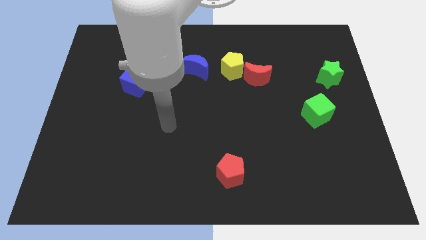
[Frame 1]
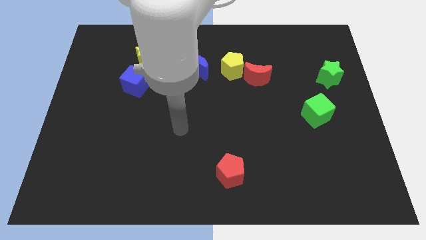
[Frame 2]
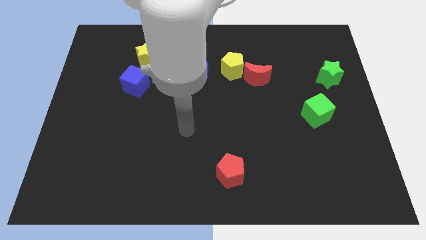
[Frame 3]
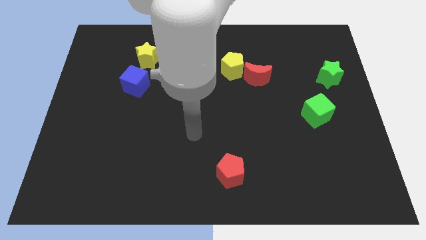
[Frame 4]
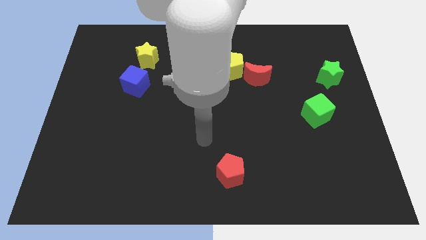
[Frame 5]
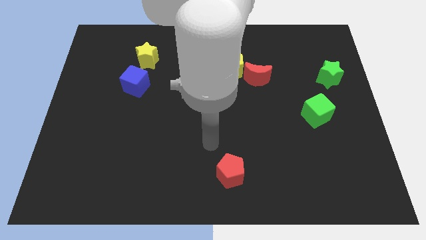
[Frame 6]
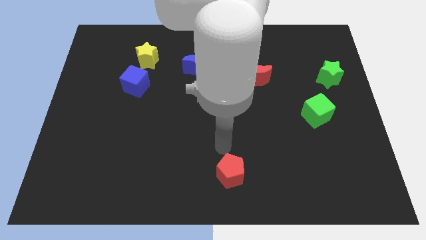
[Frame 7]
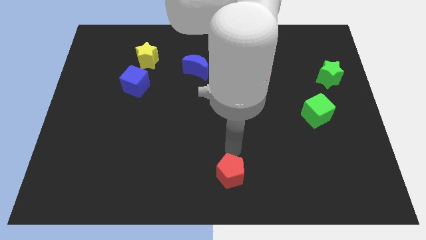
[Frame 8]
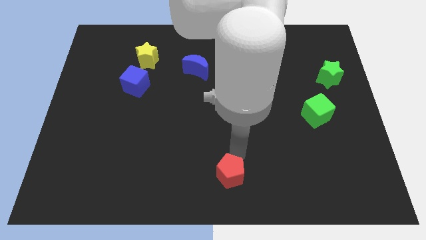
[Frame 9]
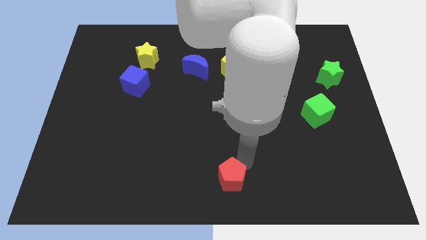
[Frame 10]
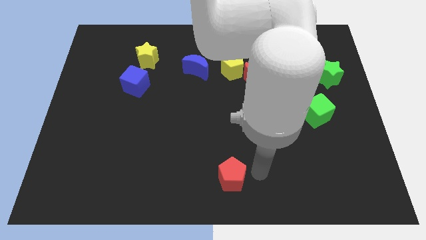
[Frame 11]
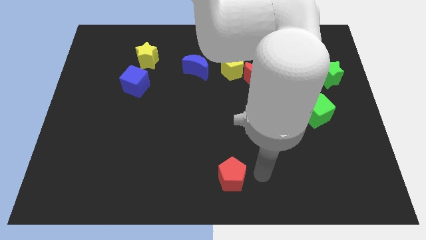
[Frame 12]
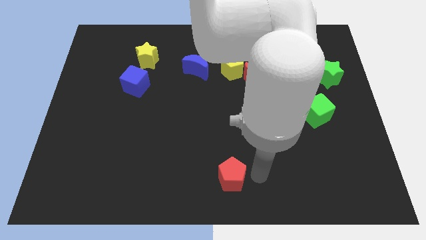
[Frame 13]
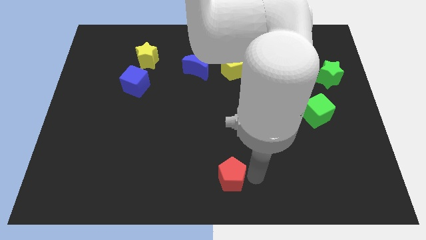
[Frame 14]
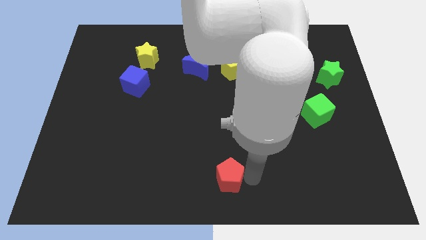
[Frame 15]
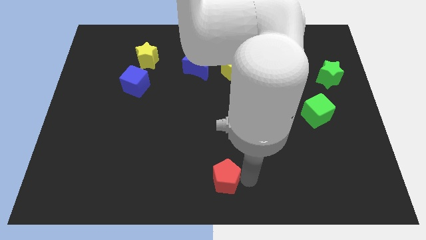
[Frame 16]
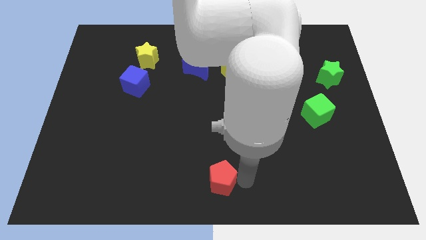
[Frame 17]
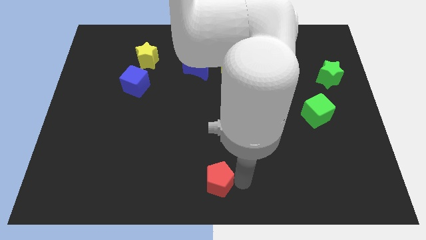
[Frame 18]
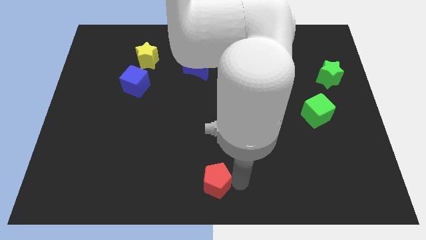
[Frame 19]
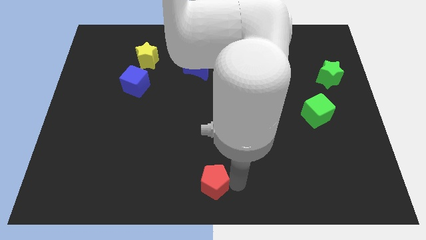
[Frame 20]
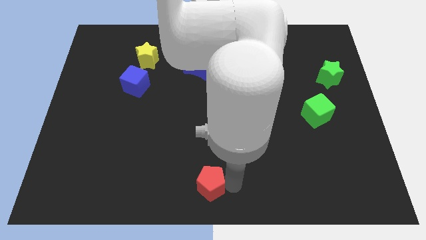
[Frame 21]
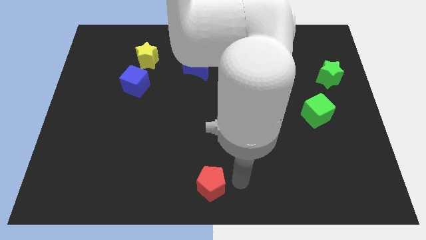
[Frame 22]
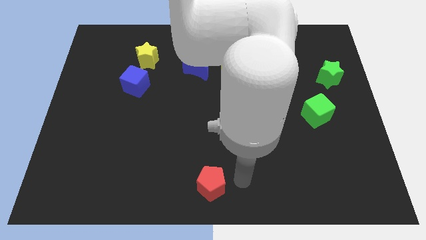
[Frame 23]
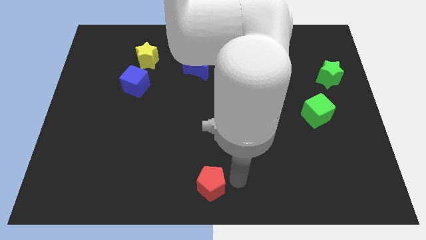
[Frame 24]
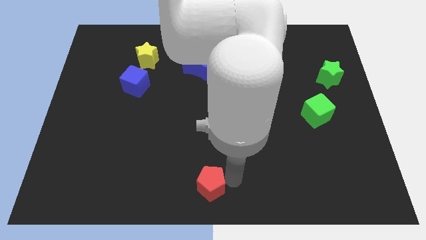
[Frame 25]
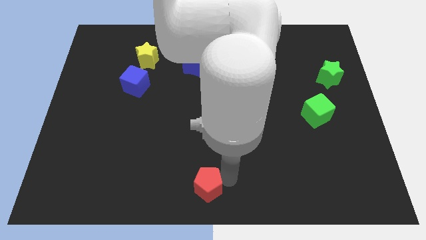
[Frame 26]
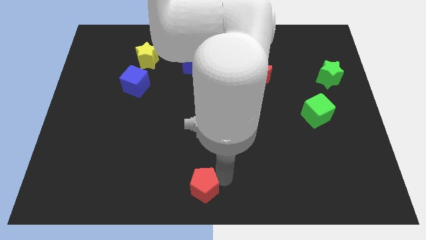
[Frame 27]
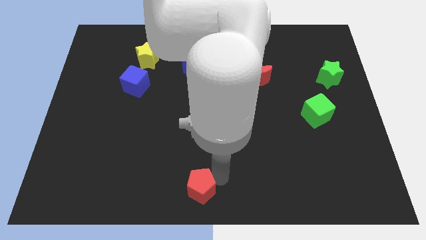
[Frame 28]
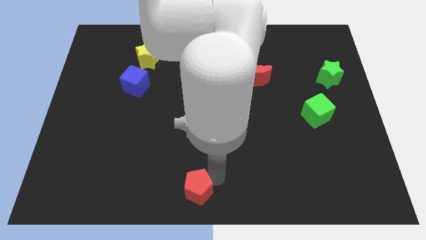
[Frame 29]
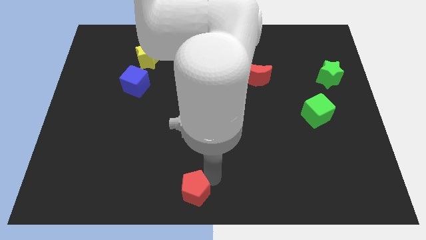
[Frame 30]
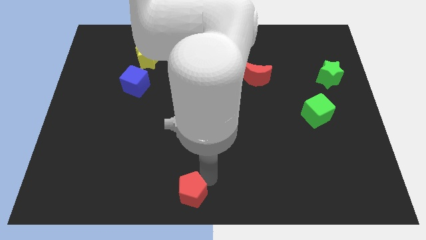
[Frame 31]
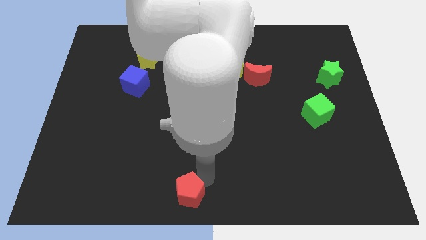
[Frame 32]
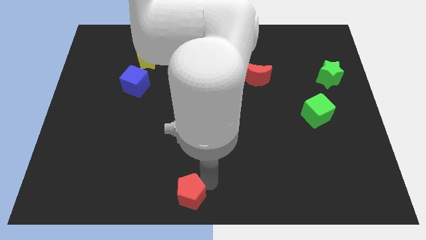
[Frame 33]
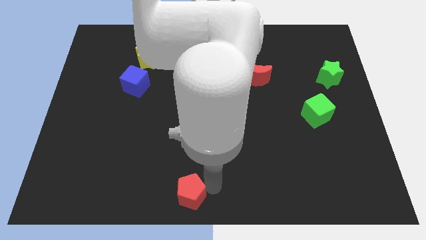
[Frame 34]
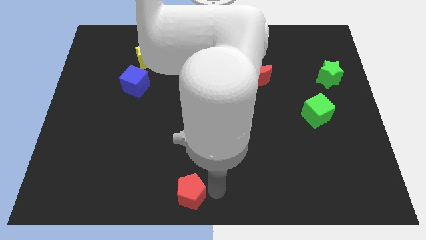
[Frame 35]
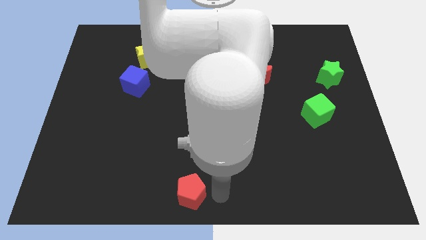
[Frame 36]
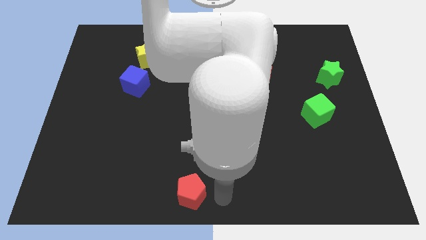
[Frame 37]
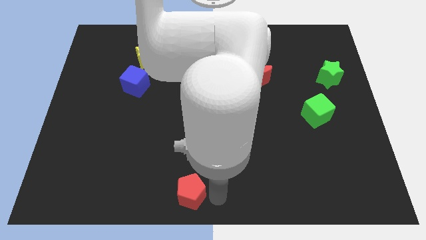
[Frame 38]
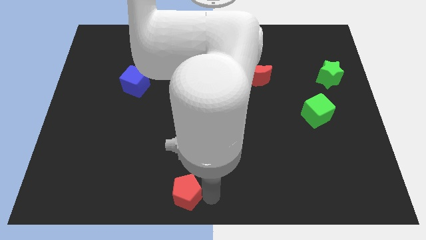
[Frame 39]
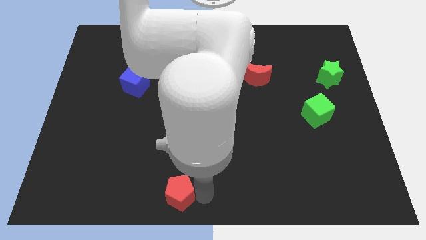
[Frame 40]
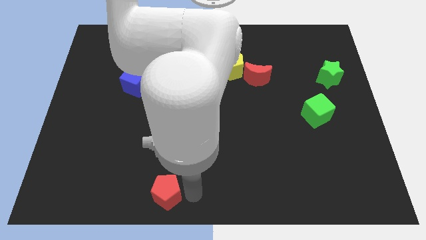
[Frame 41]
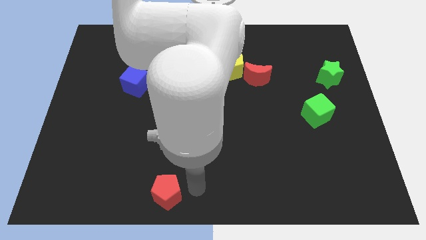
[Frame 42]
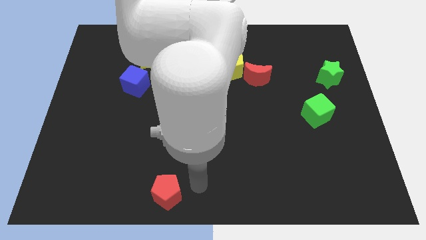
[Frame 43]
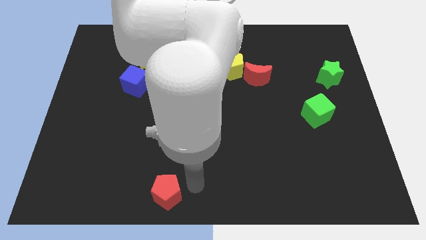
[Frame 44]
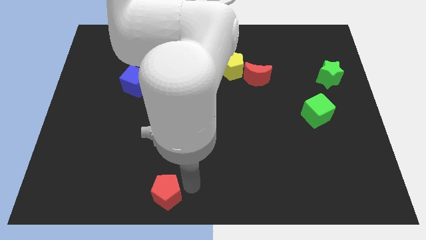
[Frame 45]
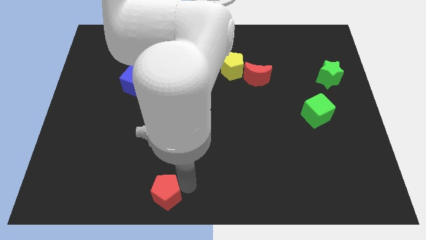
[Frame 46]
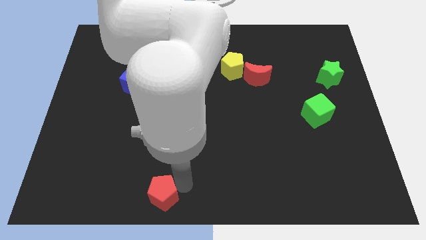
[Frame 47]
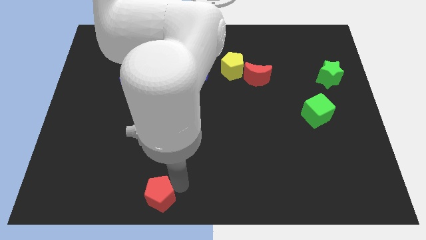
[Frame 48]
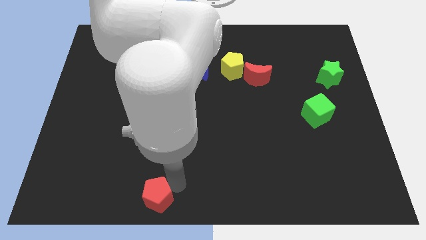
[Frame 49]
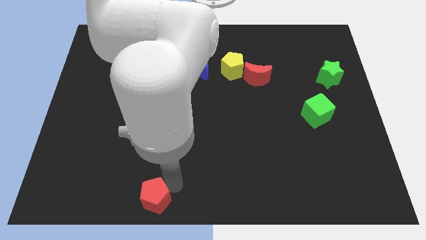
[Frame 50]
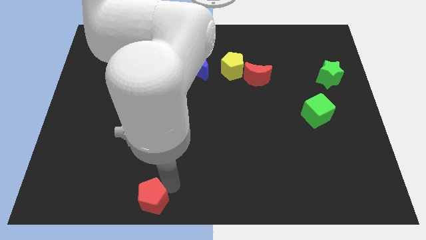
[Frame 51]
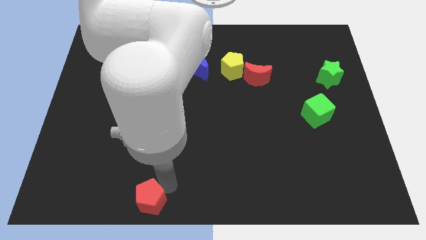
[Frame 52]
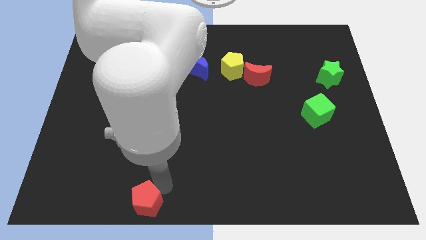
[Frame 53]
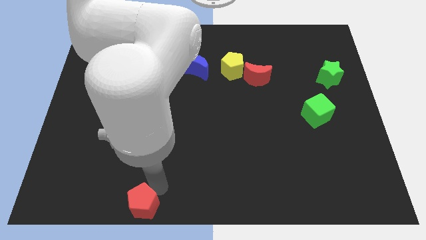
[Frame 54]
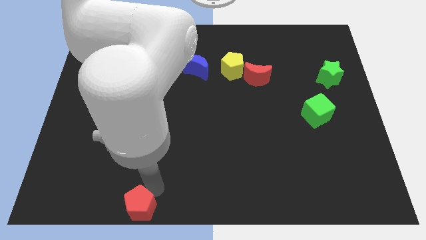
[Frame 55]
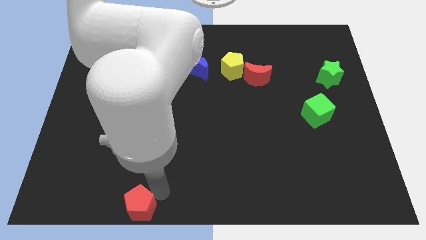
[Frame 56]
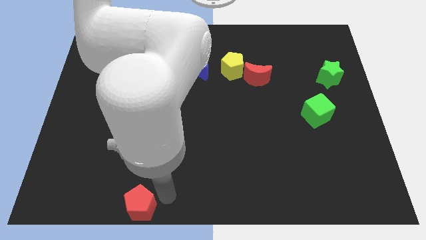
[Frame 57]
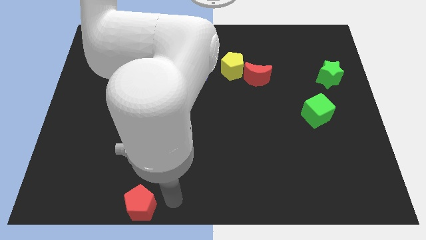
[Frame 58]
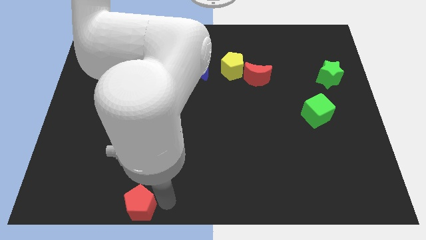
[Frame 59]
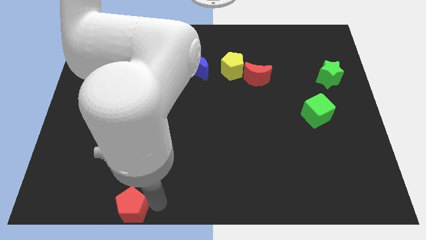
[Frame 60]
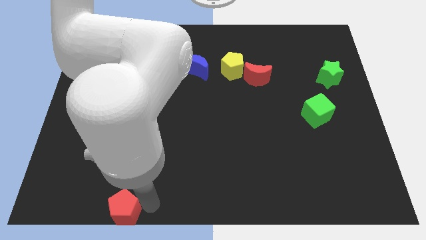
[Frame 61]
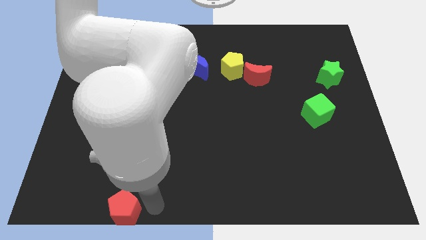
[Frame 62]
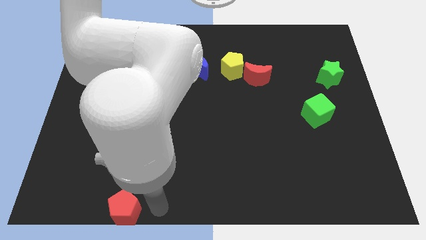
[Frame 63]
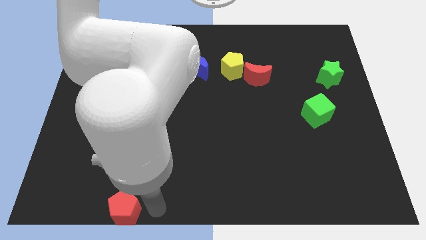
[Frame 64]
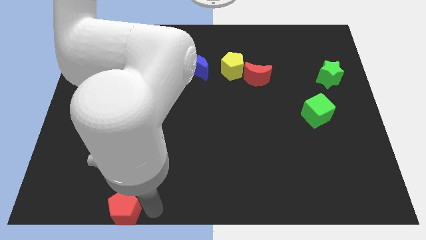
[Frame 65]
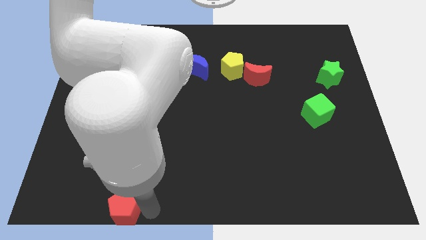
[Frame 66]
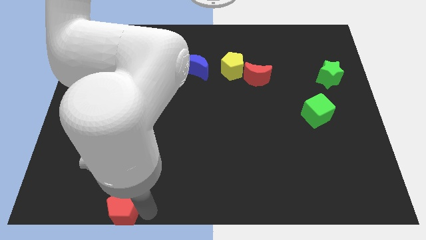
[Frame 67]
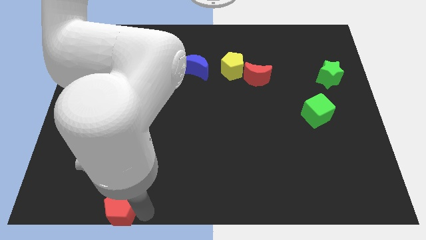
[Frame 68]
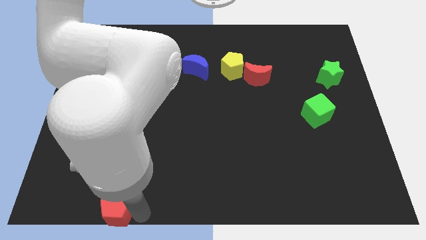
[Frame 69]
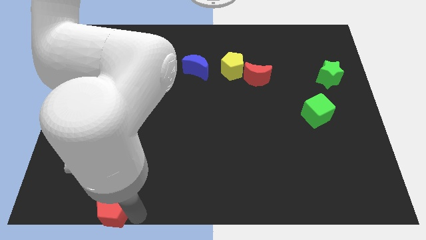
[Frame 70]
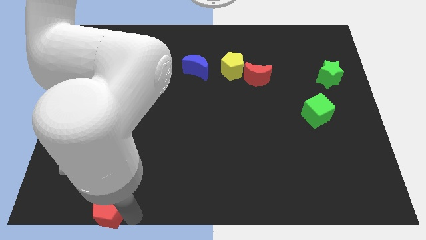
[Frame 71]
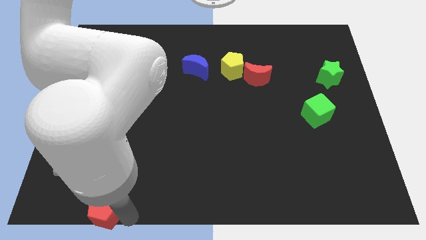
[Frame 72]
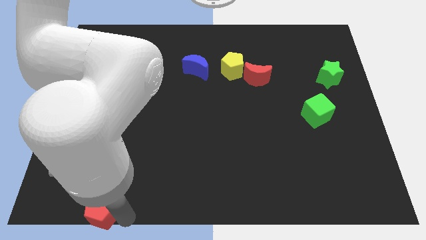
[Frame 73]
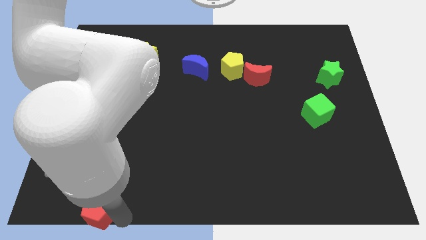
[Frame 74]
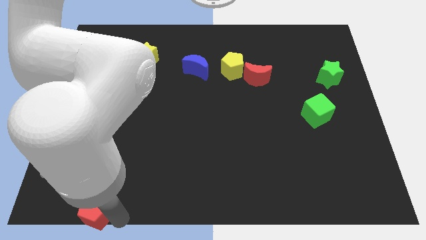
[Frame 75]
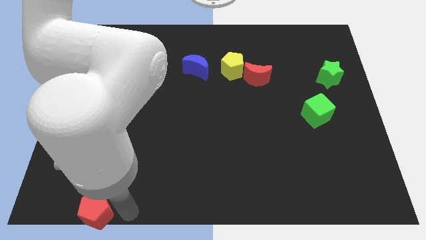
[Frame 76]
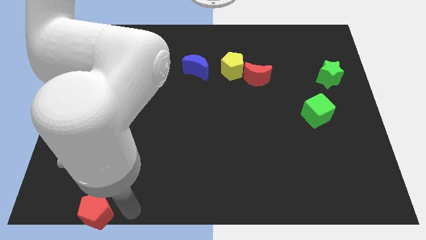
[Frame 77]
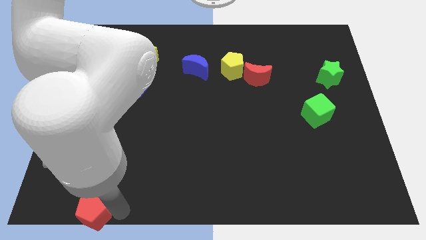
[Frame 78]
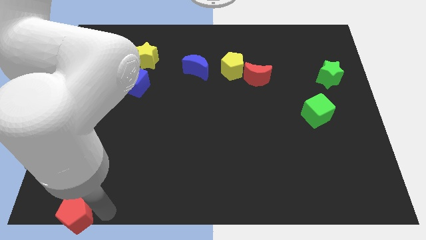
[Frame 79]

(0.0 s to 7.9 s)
move the red pentagon to the bottom left of the board
